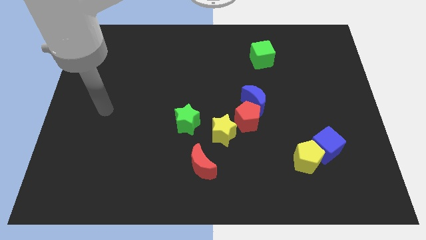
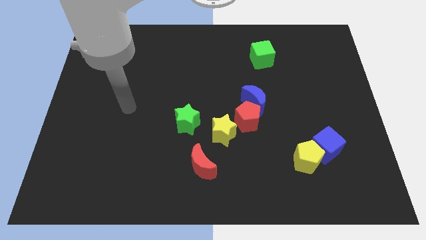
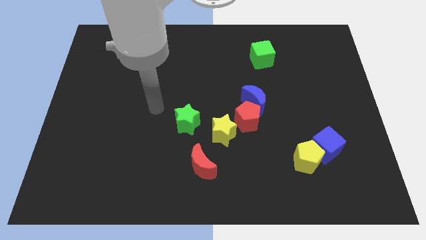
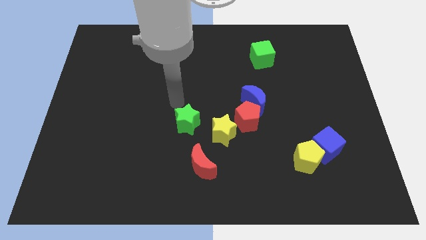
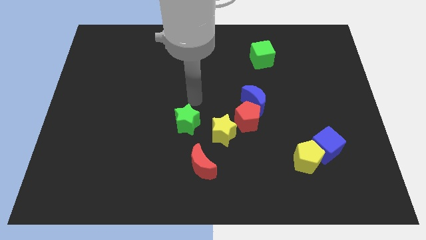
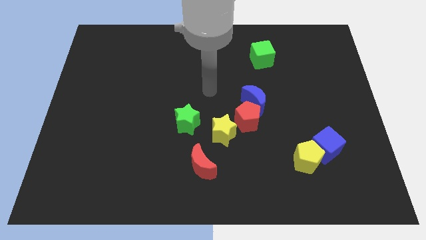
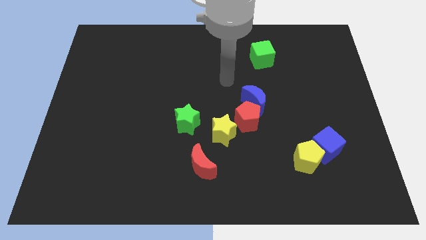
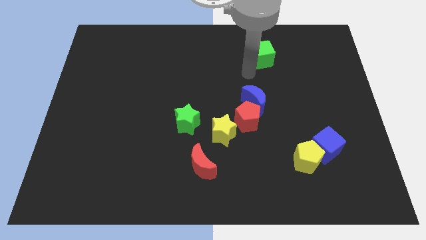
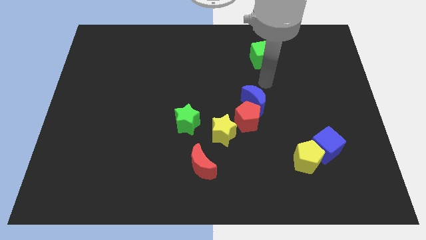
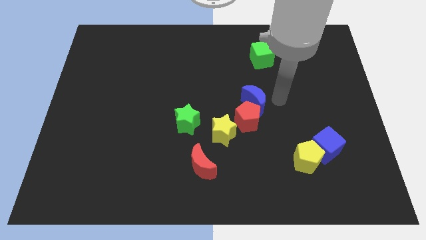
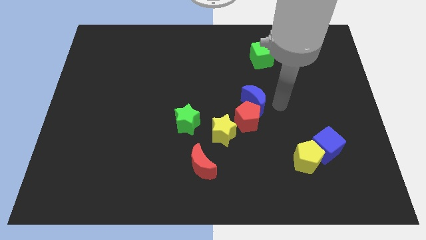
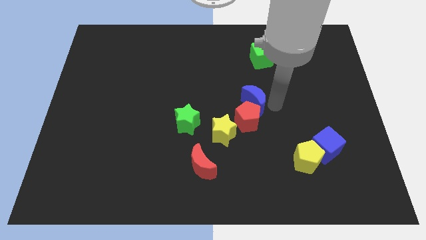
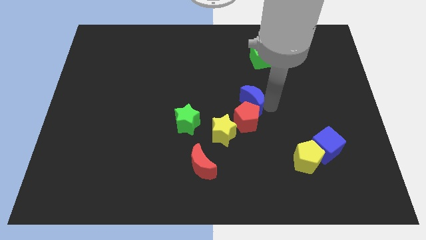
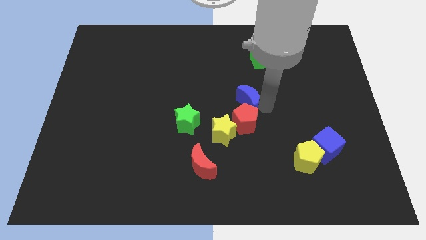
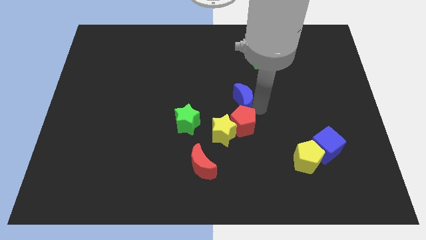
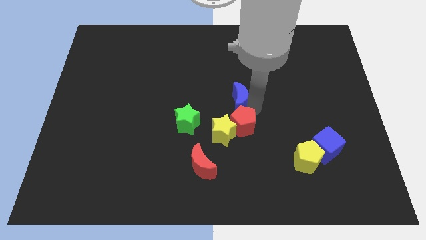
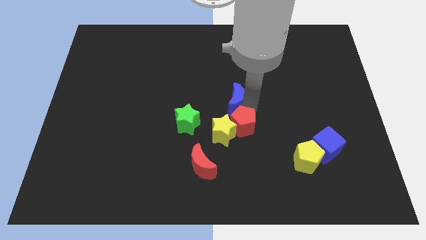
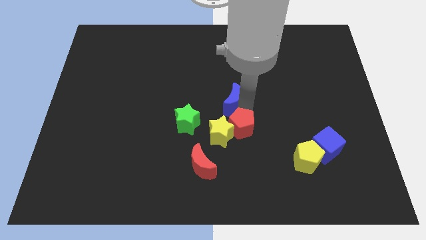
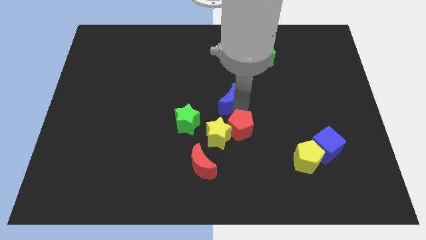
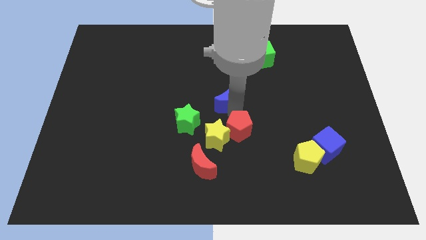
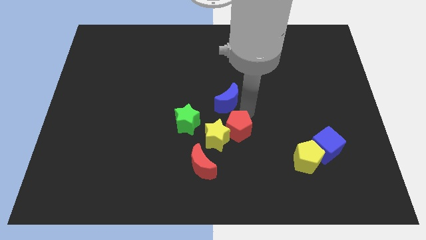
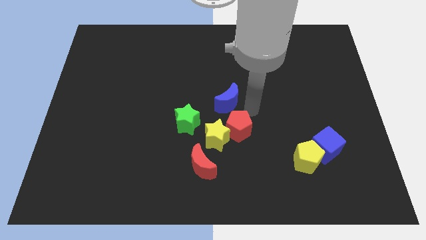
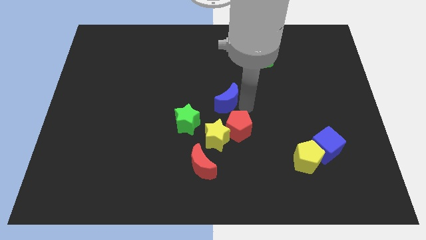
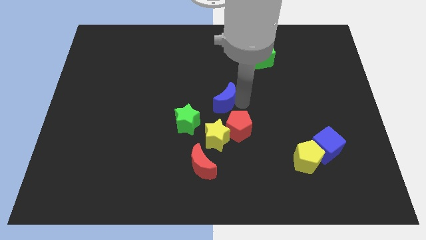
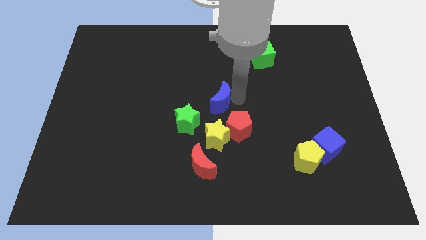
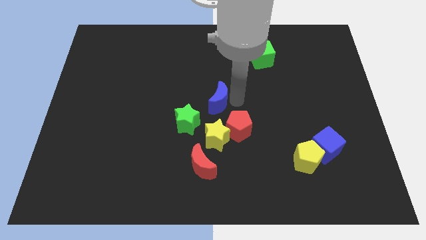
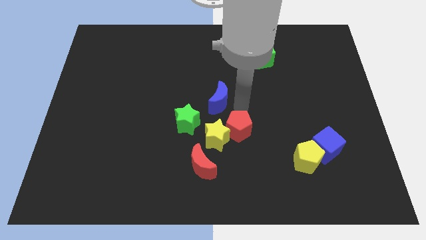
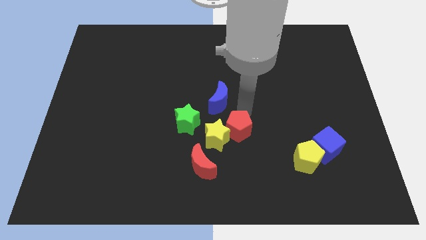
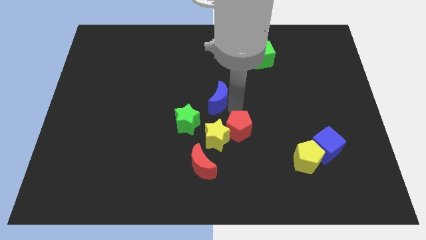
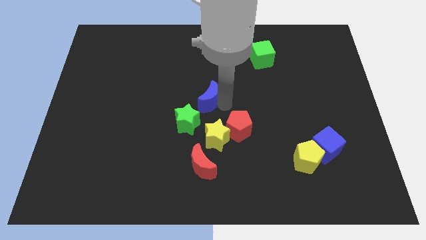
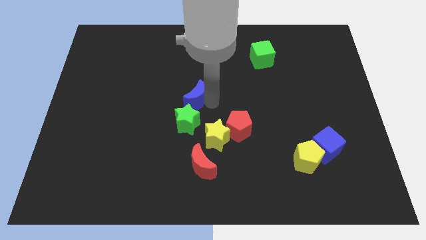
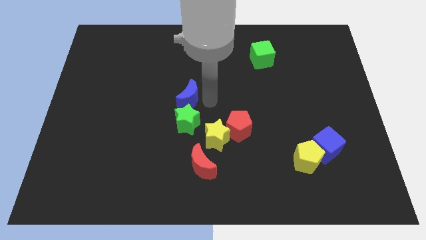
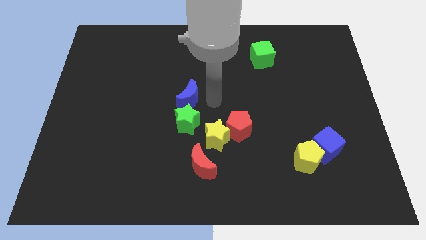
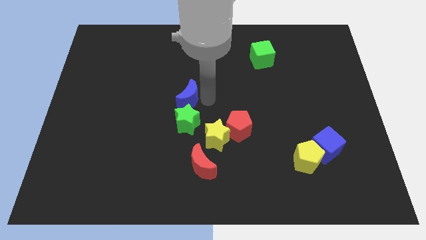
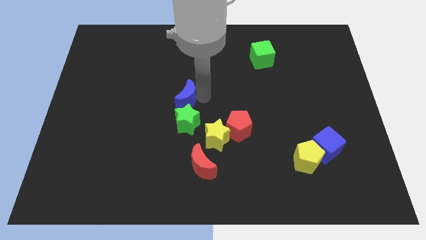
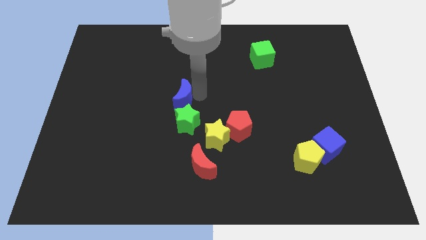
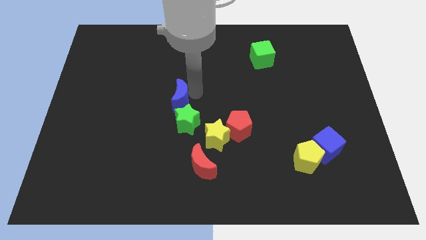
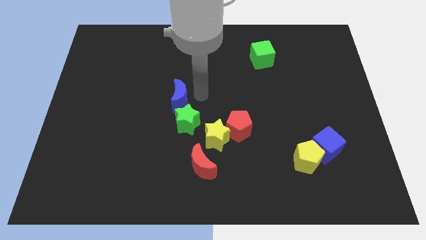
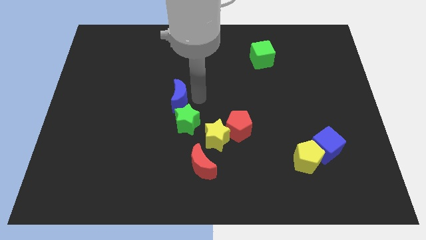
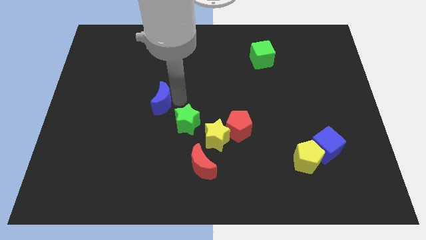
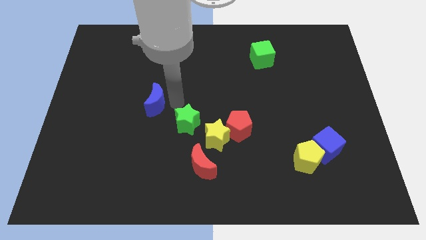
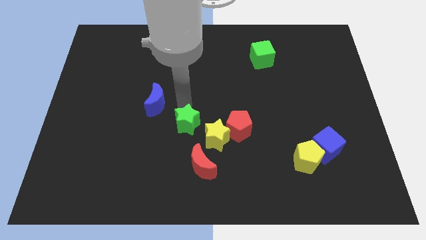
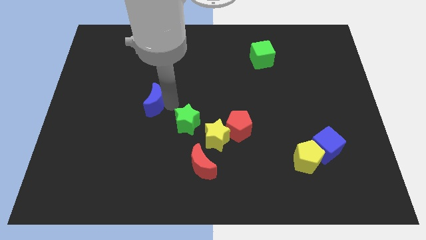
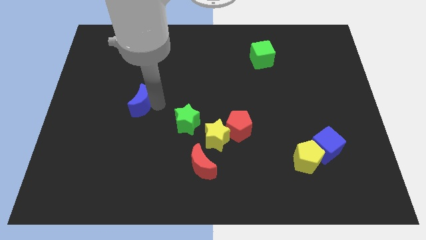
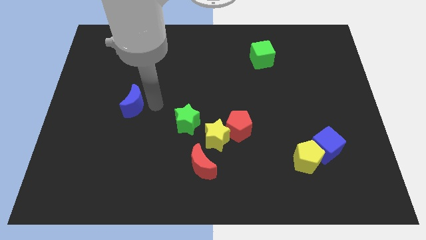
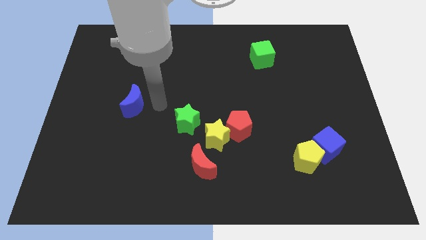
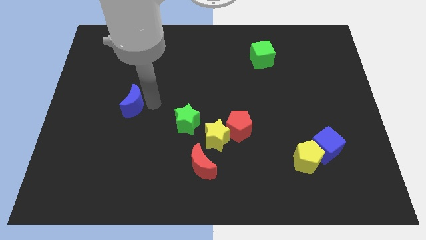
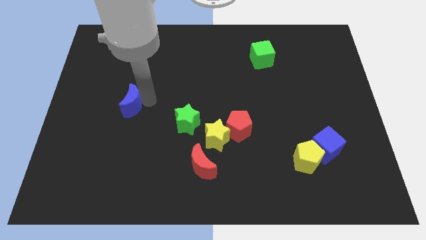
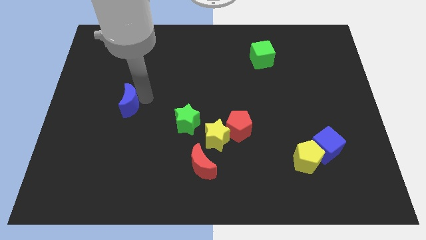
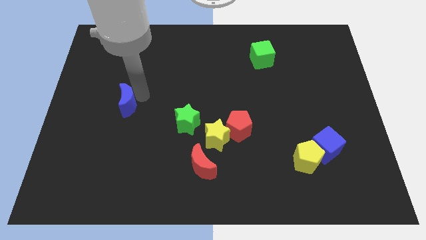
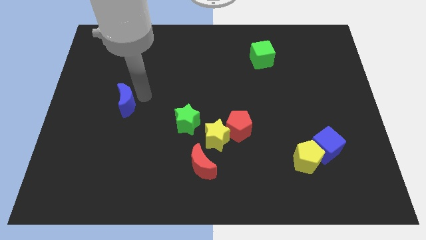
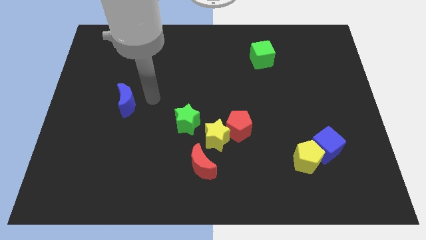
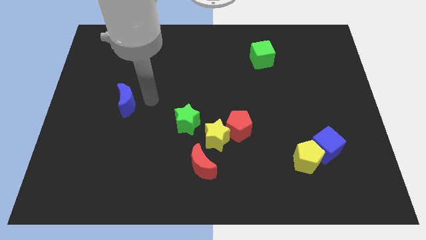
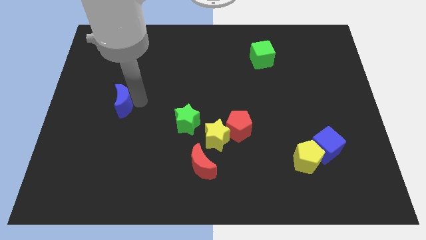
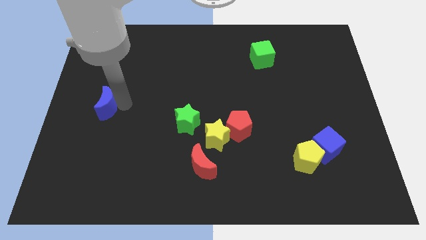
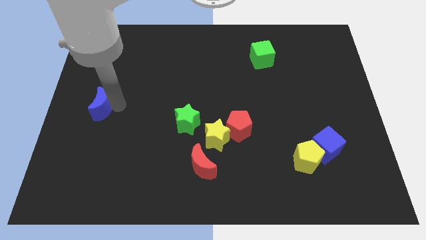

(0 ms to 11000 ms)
put the blue moon to the left side of the board

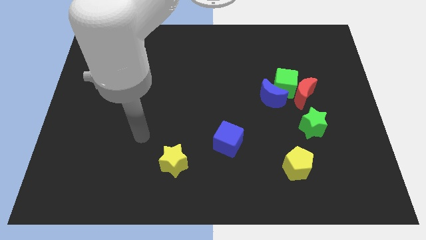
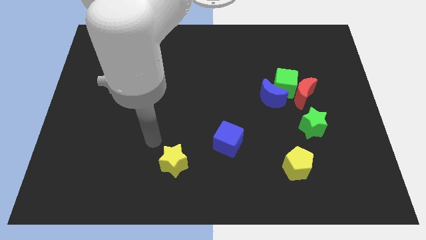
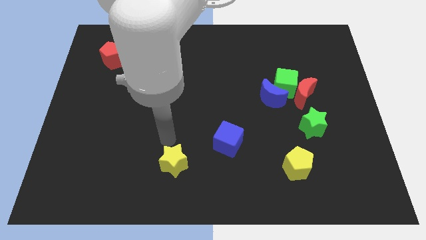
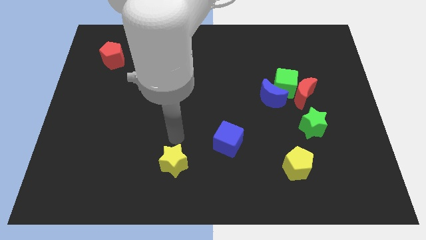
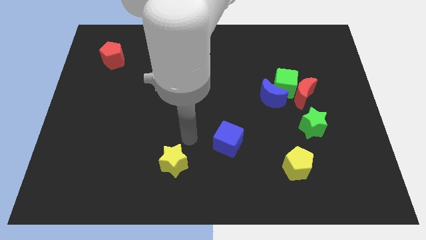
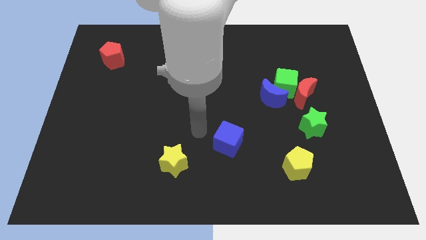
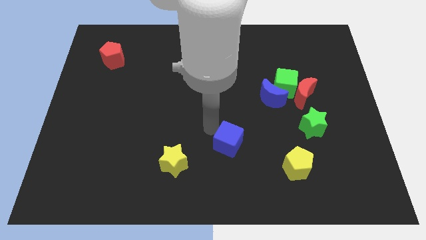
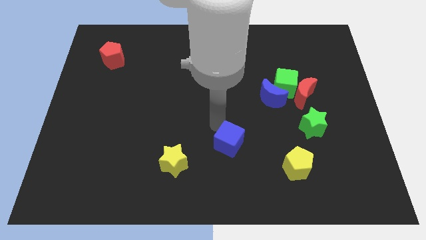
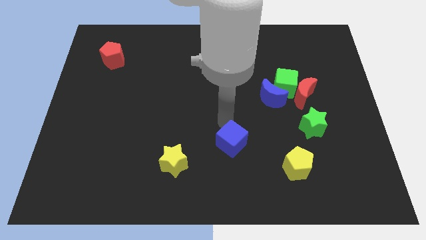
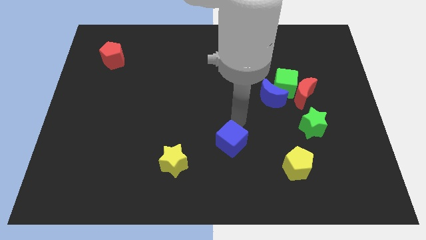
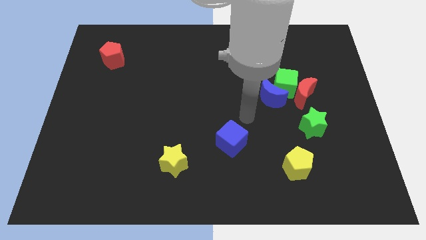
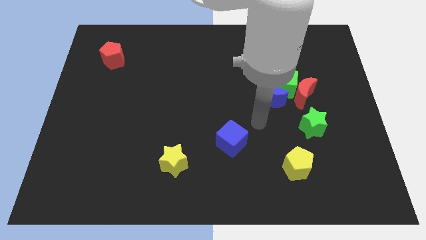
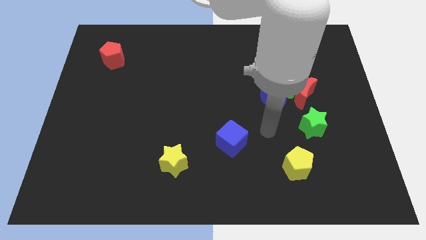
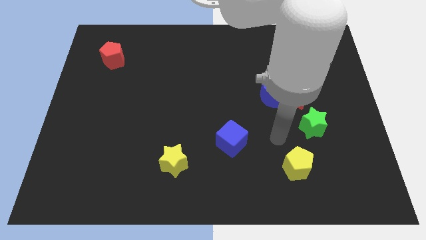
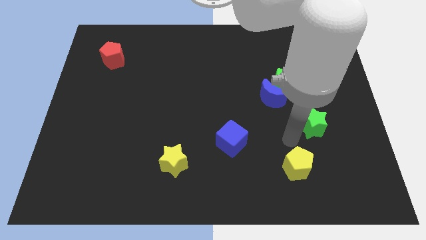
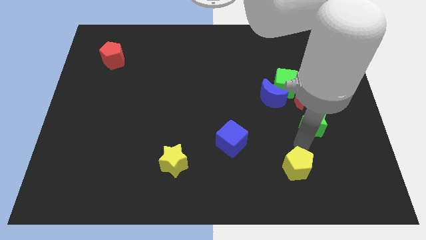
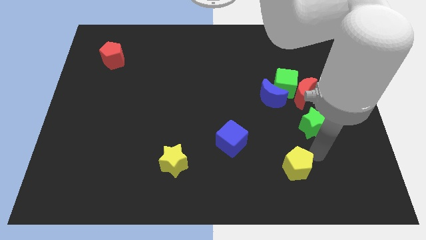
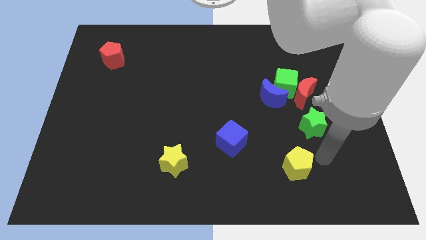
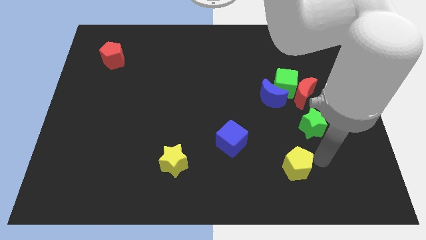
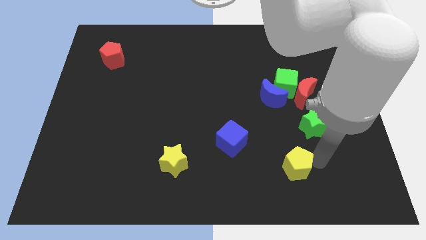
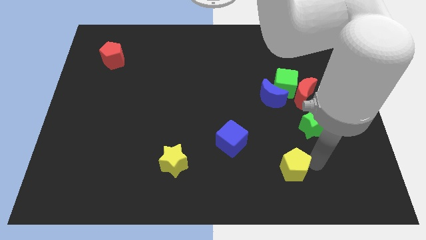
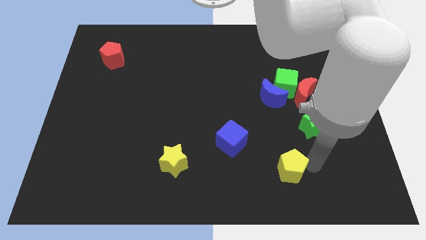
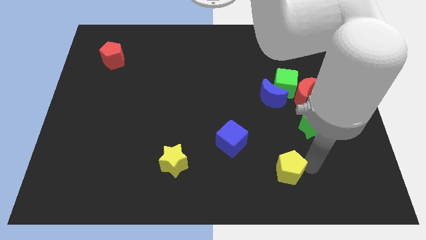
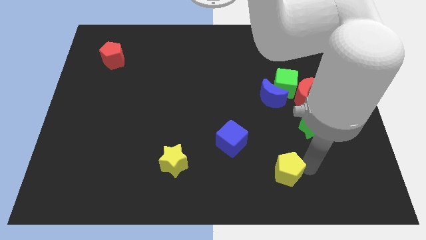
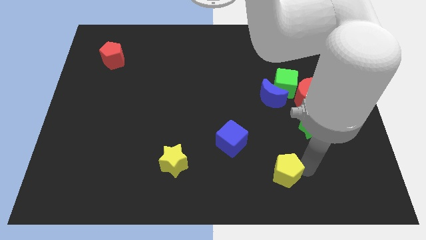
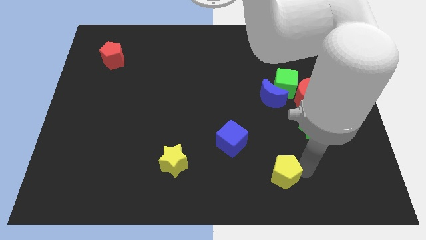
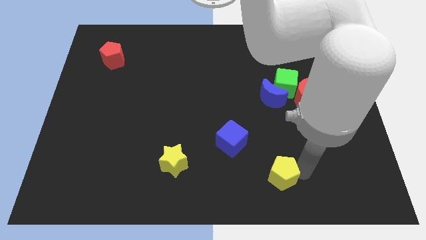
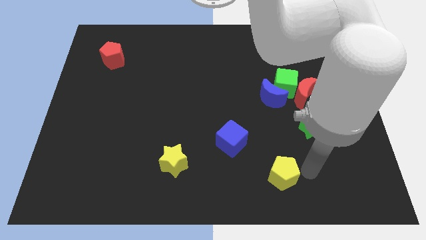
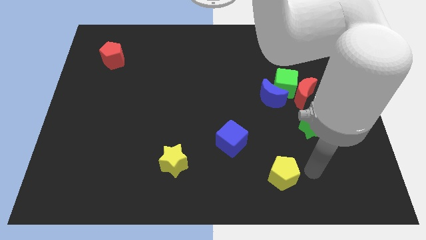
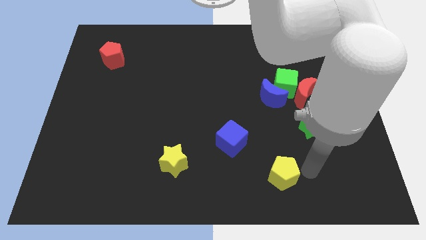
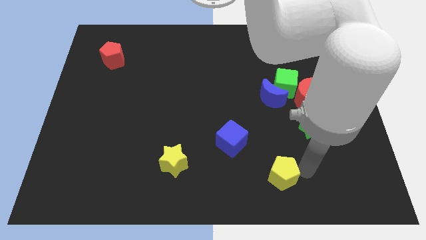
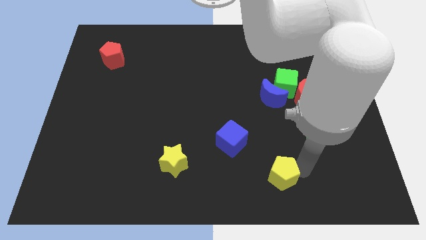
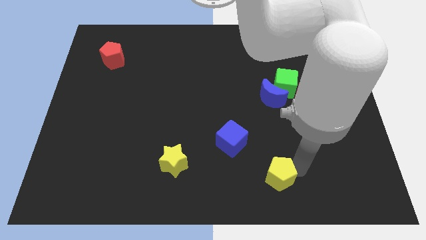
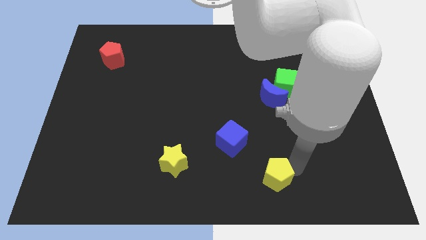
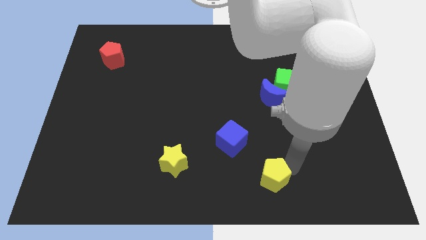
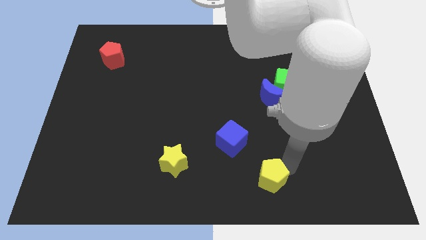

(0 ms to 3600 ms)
slide the yellow pentagon to the bottom side
